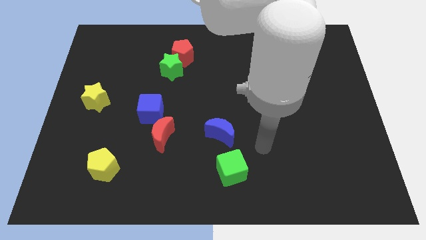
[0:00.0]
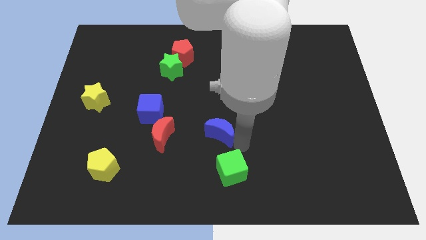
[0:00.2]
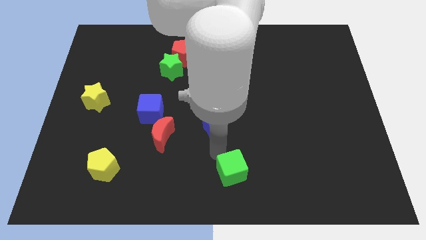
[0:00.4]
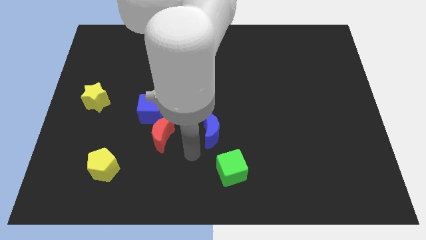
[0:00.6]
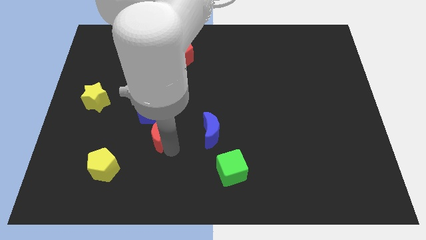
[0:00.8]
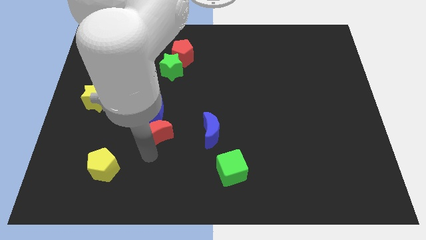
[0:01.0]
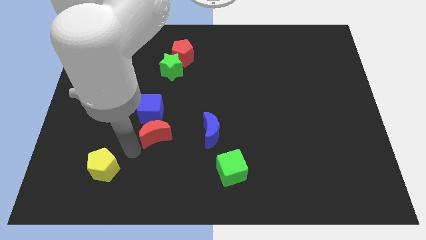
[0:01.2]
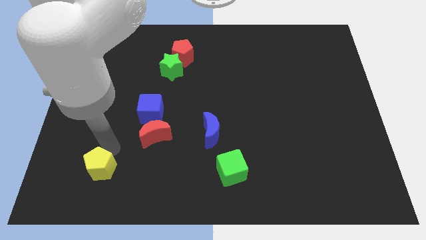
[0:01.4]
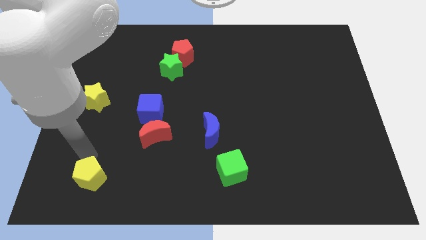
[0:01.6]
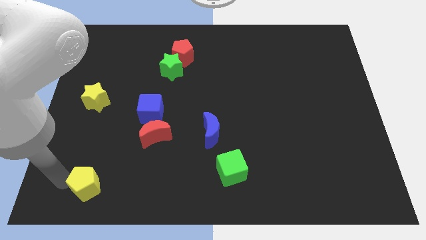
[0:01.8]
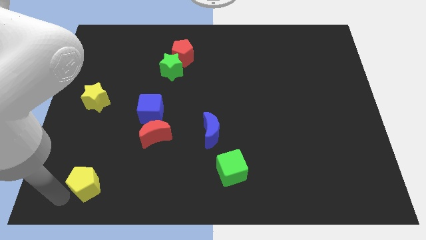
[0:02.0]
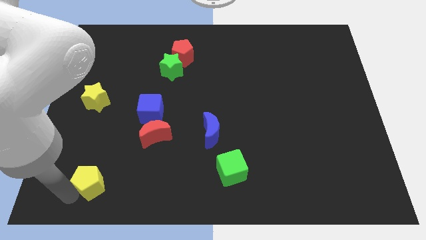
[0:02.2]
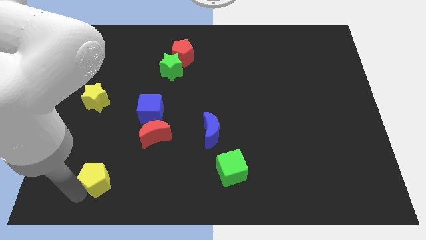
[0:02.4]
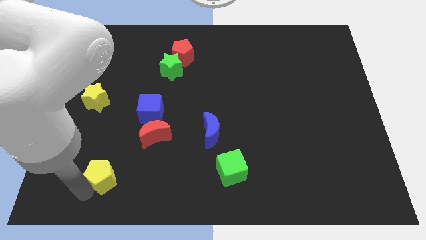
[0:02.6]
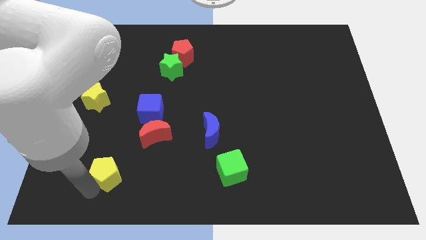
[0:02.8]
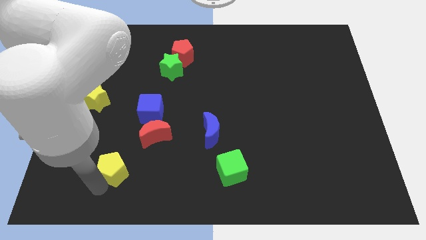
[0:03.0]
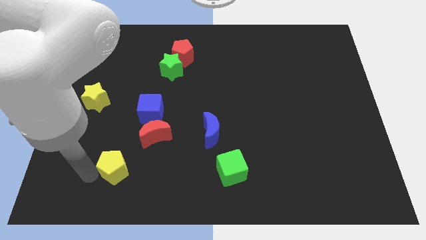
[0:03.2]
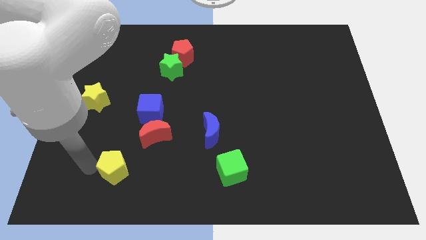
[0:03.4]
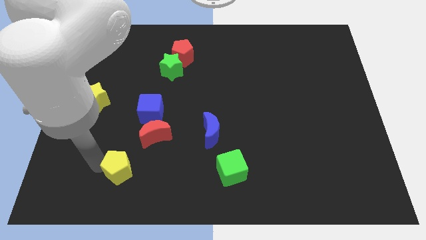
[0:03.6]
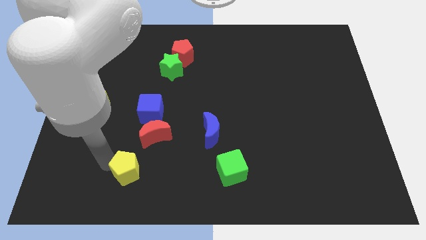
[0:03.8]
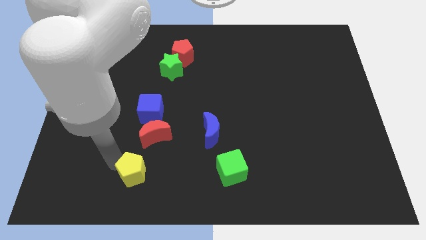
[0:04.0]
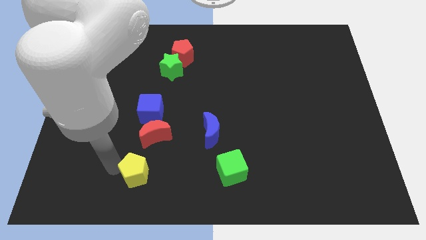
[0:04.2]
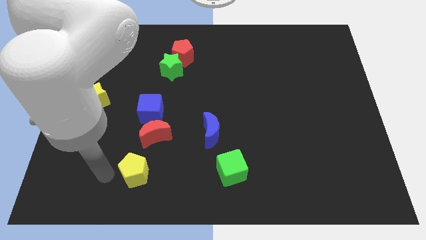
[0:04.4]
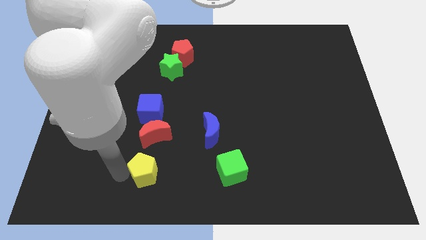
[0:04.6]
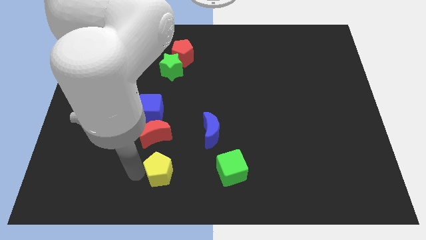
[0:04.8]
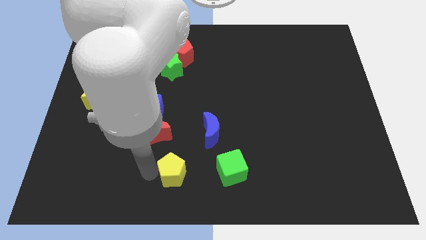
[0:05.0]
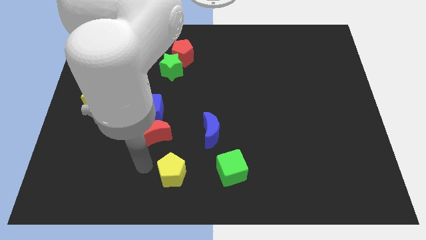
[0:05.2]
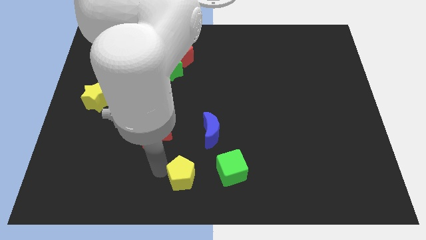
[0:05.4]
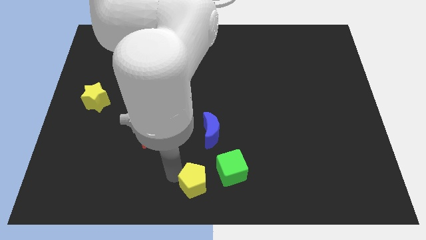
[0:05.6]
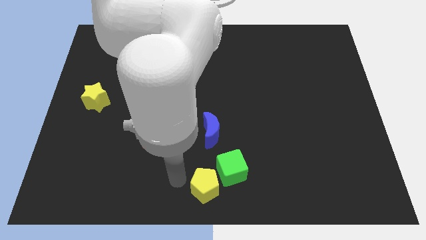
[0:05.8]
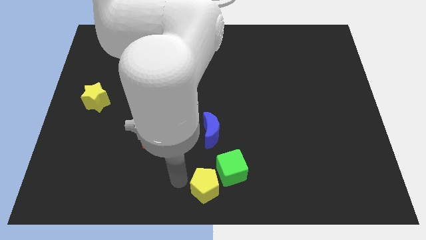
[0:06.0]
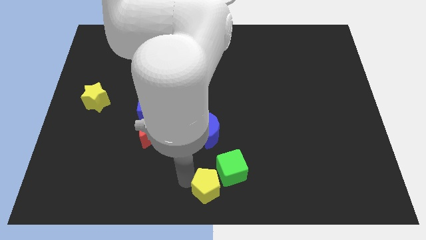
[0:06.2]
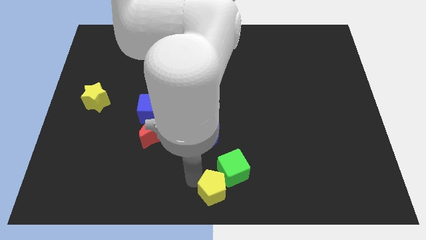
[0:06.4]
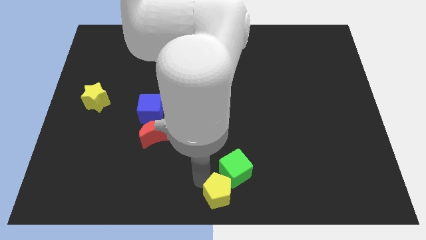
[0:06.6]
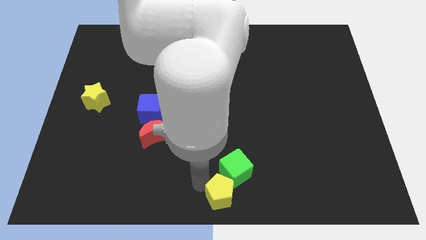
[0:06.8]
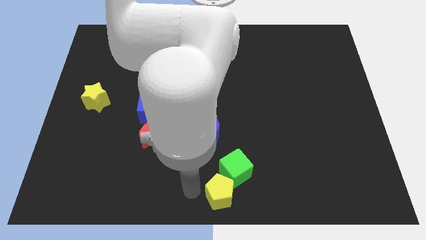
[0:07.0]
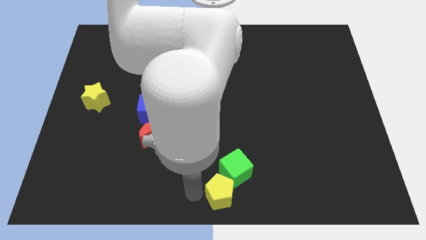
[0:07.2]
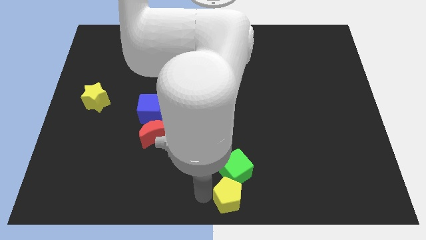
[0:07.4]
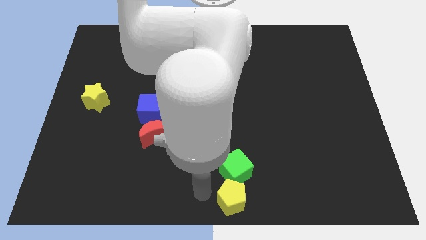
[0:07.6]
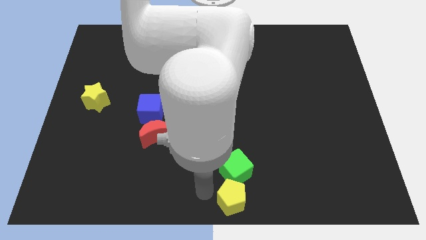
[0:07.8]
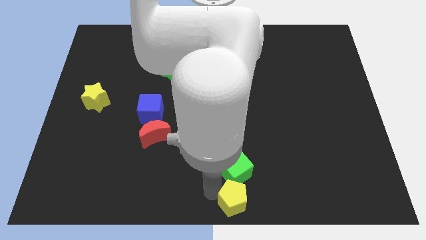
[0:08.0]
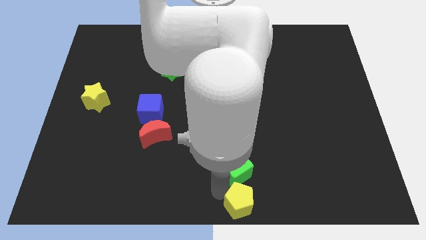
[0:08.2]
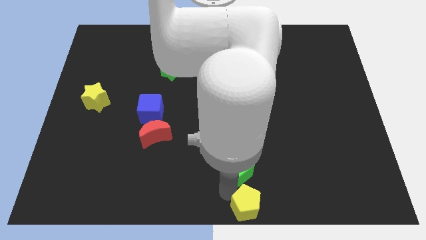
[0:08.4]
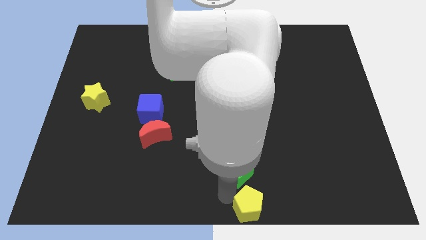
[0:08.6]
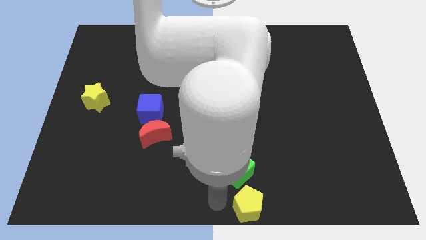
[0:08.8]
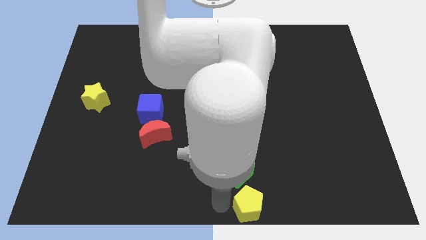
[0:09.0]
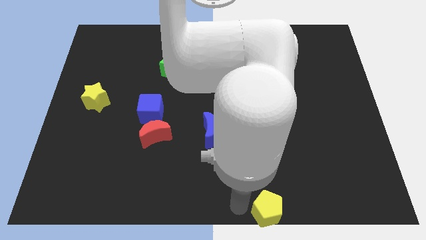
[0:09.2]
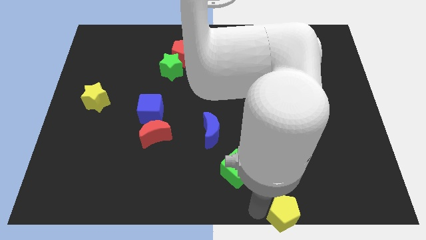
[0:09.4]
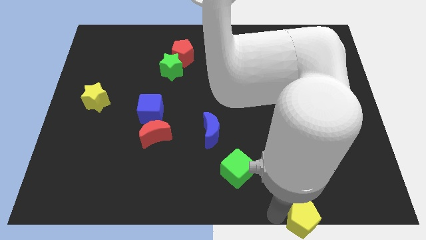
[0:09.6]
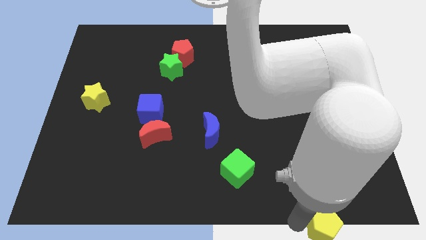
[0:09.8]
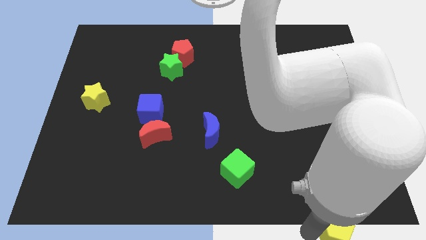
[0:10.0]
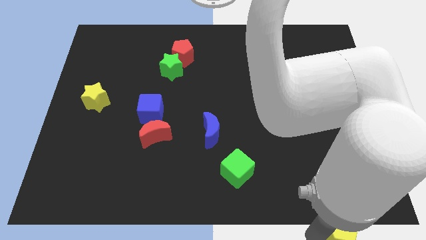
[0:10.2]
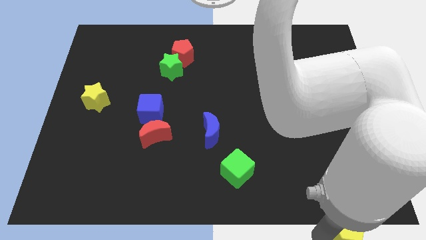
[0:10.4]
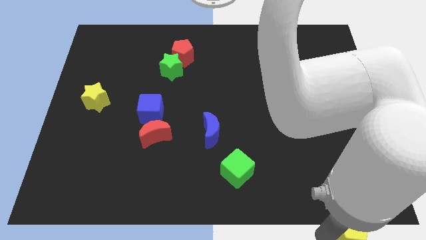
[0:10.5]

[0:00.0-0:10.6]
move the yellow pentagon to the bottom right of the board

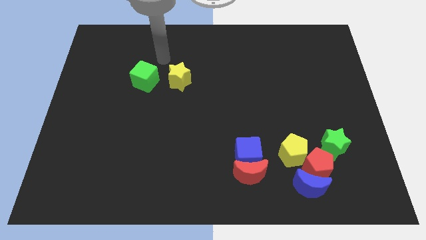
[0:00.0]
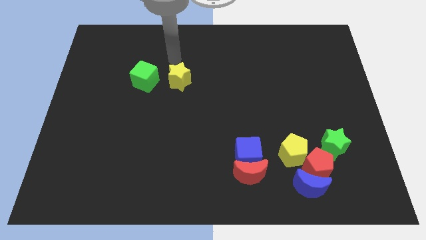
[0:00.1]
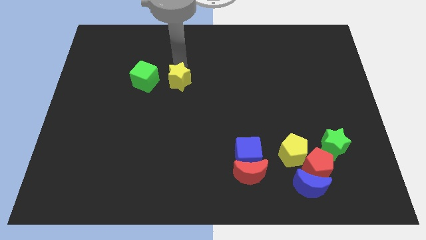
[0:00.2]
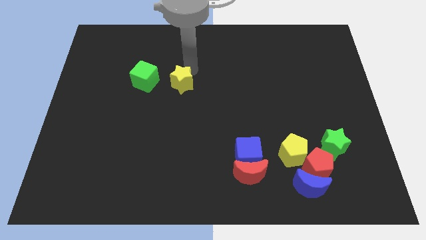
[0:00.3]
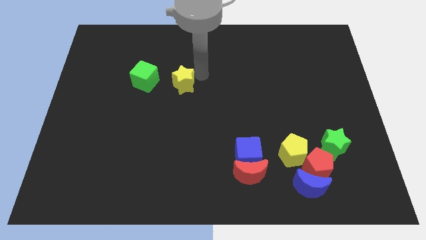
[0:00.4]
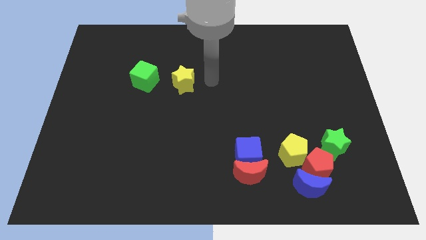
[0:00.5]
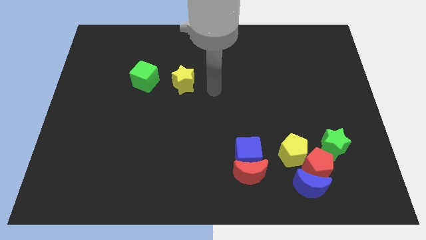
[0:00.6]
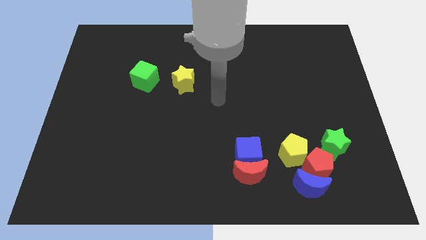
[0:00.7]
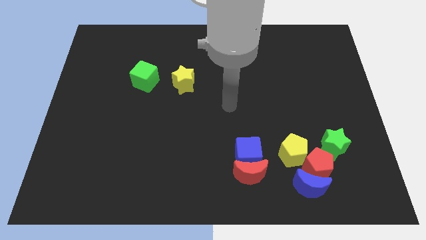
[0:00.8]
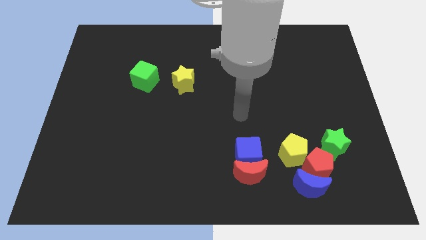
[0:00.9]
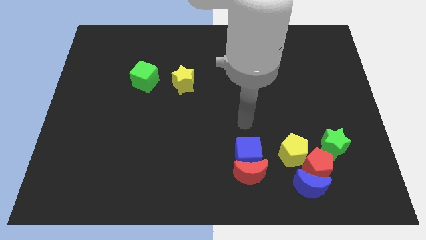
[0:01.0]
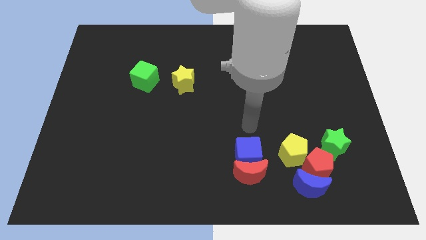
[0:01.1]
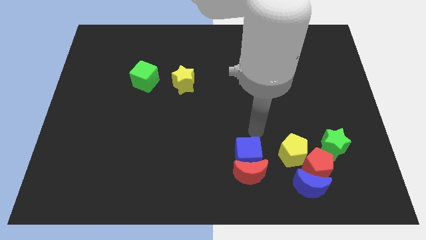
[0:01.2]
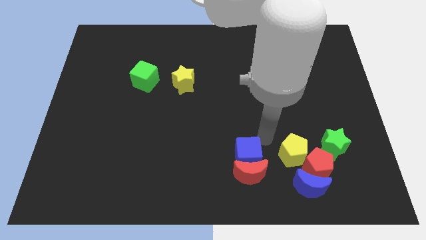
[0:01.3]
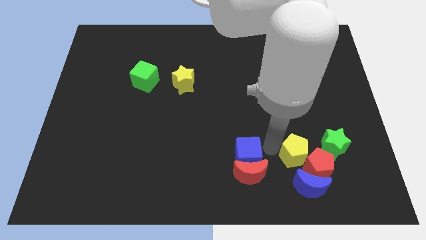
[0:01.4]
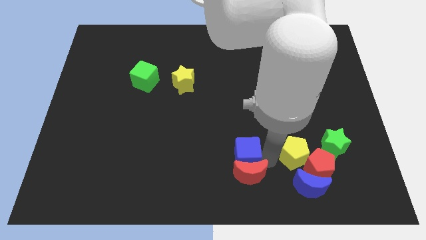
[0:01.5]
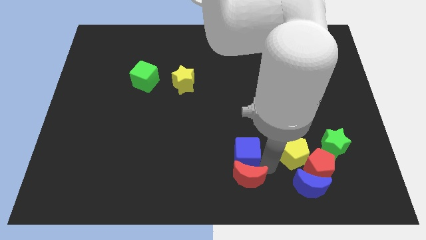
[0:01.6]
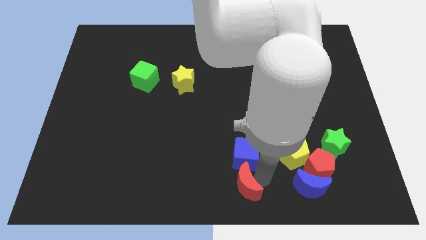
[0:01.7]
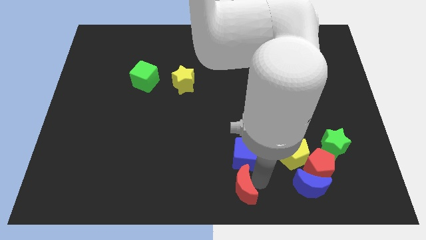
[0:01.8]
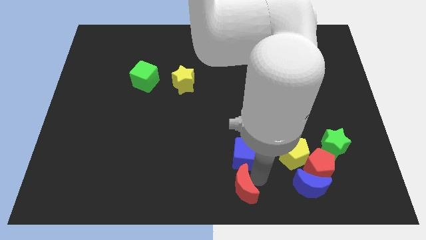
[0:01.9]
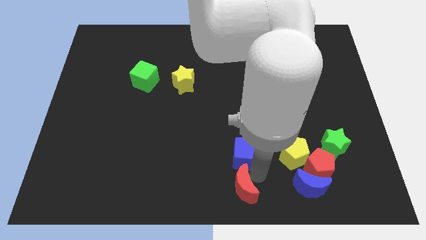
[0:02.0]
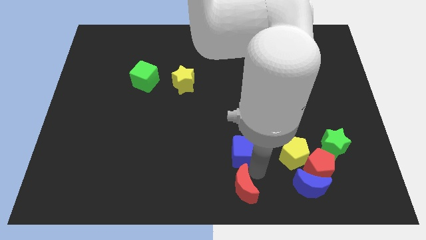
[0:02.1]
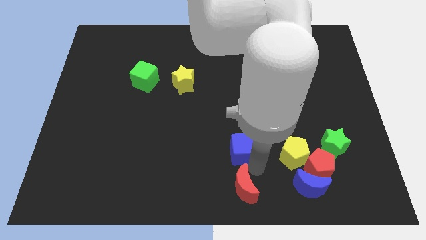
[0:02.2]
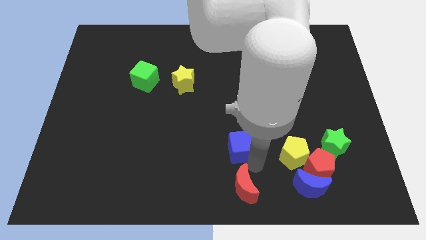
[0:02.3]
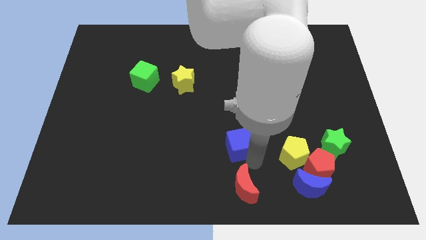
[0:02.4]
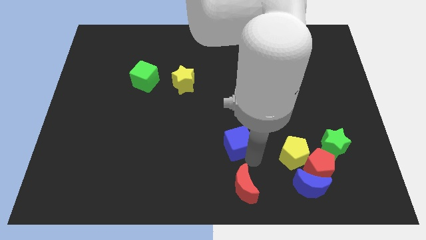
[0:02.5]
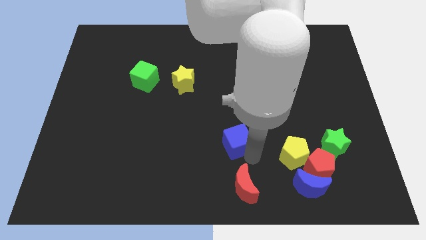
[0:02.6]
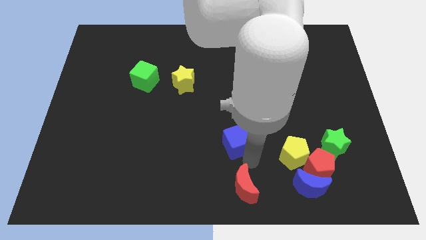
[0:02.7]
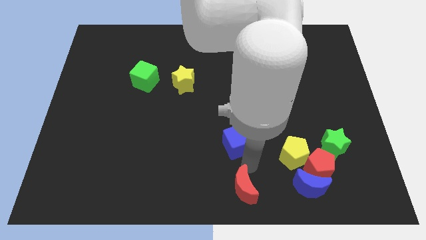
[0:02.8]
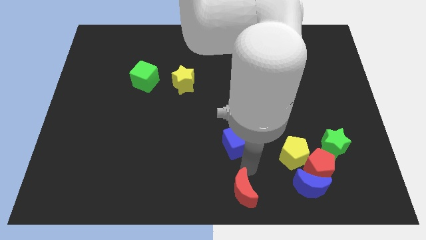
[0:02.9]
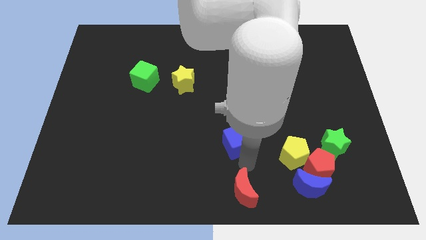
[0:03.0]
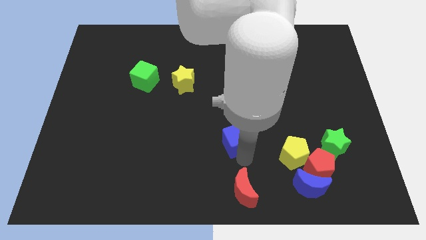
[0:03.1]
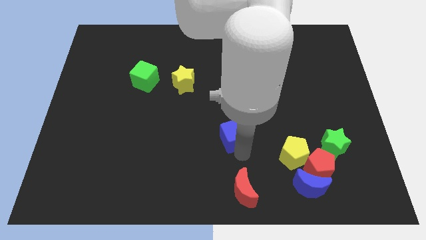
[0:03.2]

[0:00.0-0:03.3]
put the blue cube to the middle of the board
